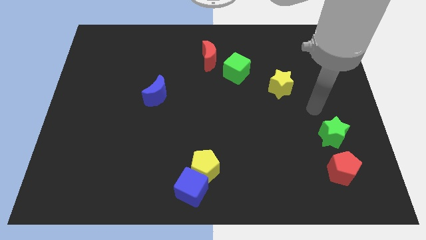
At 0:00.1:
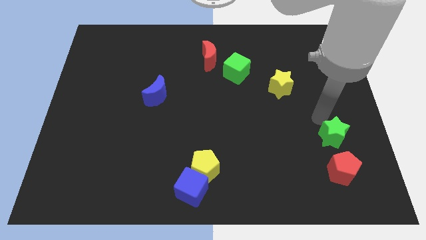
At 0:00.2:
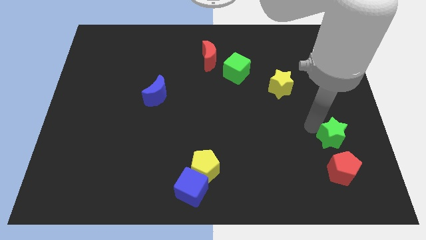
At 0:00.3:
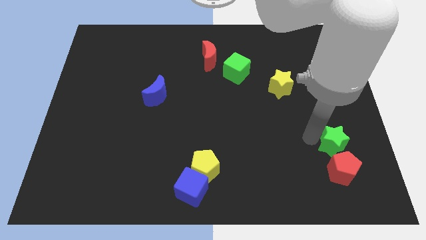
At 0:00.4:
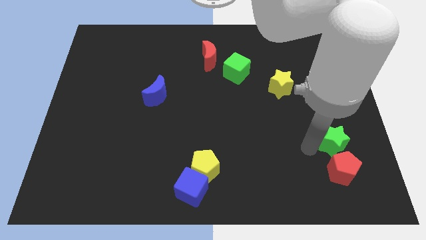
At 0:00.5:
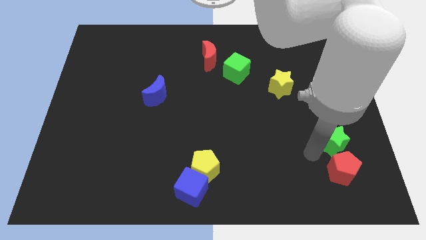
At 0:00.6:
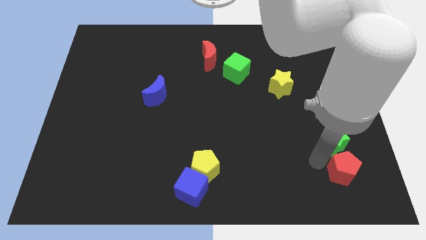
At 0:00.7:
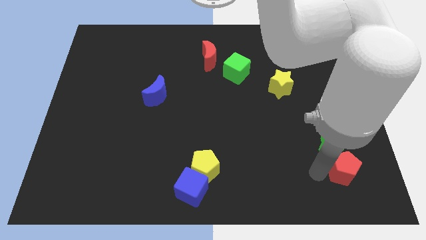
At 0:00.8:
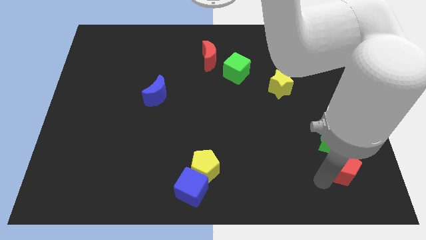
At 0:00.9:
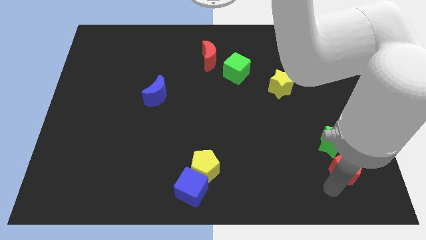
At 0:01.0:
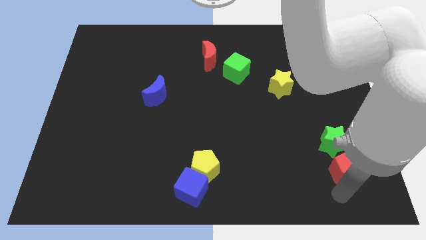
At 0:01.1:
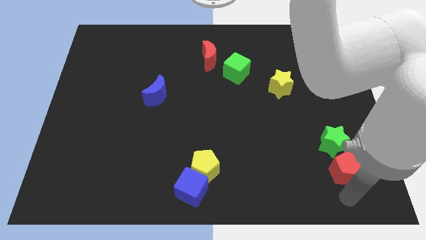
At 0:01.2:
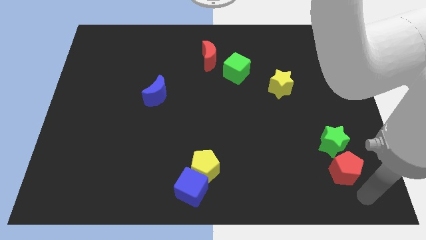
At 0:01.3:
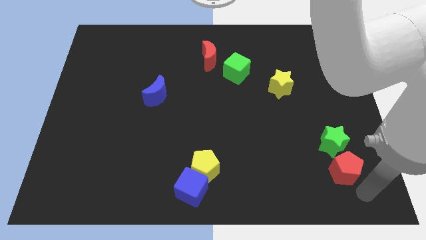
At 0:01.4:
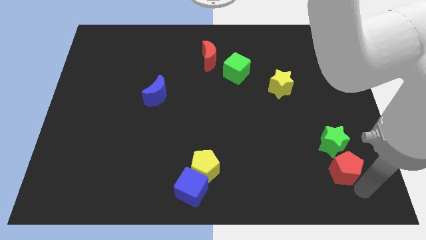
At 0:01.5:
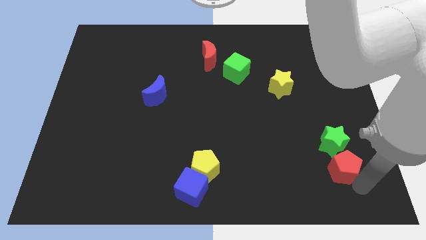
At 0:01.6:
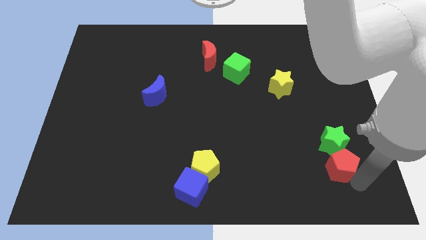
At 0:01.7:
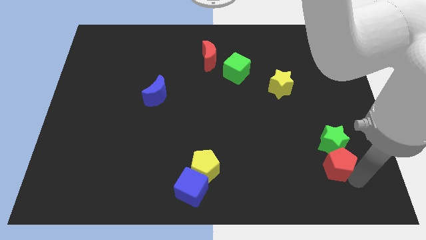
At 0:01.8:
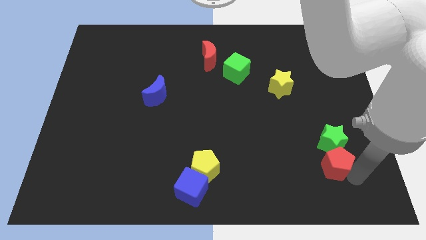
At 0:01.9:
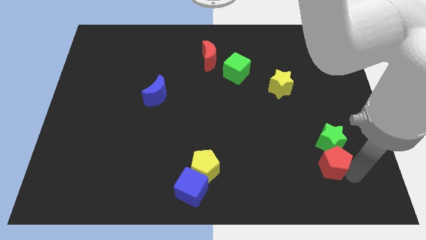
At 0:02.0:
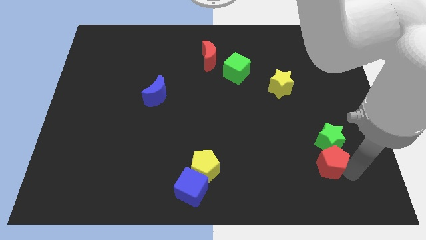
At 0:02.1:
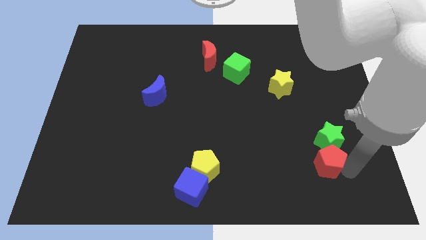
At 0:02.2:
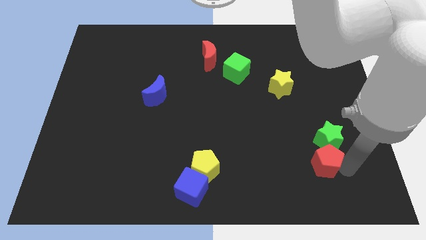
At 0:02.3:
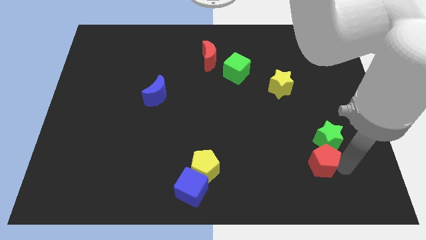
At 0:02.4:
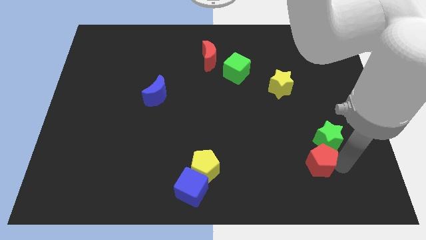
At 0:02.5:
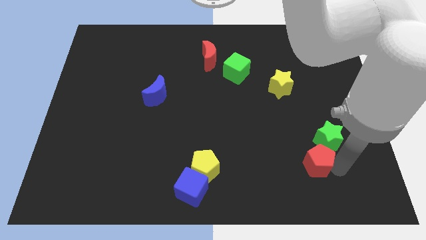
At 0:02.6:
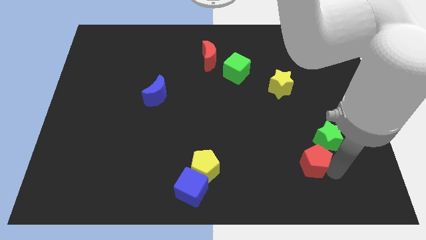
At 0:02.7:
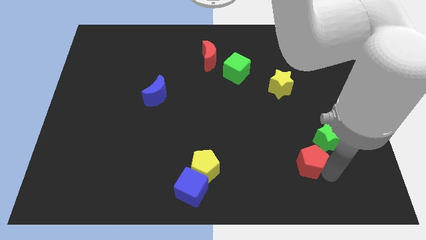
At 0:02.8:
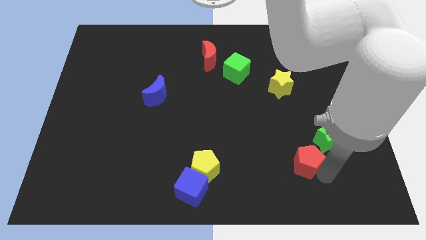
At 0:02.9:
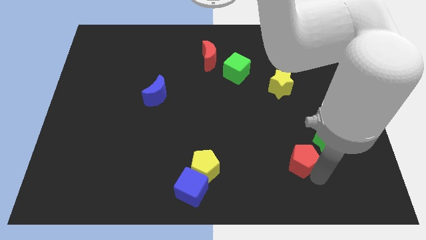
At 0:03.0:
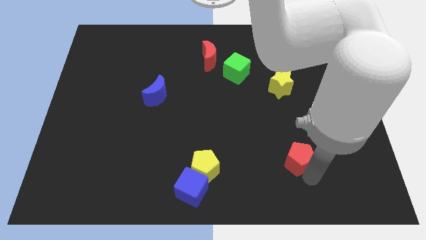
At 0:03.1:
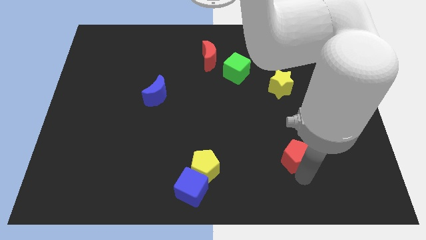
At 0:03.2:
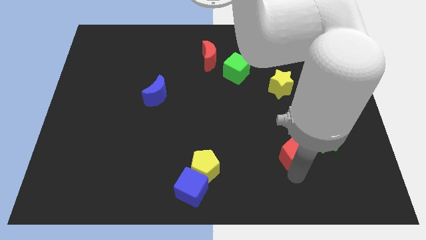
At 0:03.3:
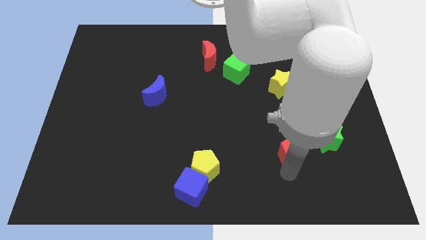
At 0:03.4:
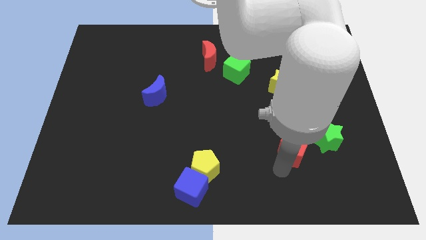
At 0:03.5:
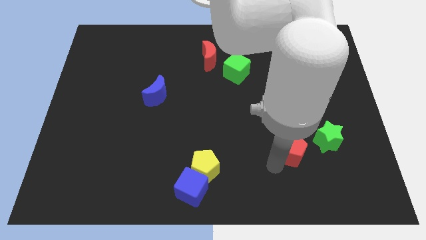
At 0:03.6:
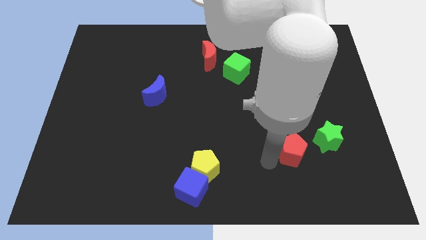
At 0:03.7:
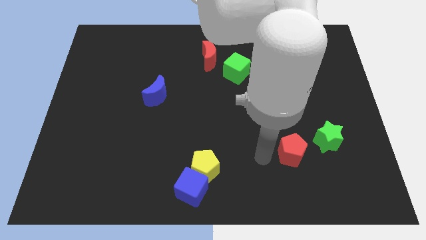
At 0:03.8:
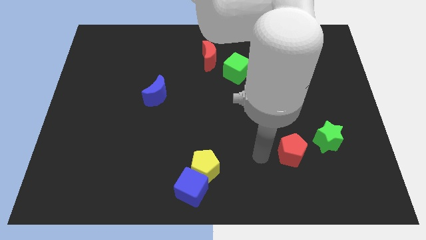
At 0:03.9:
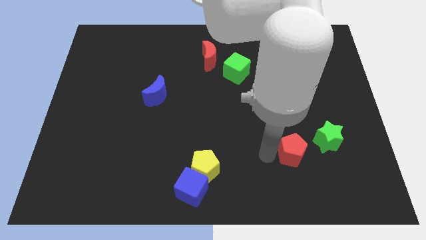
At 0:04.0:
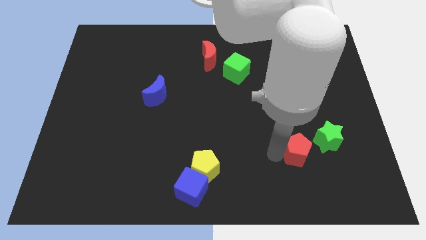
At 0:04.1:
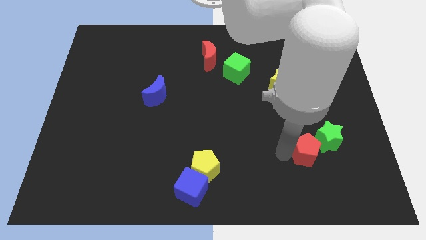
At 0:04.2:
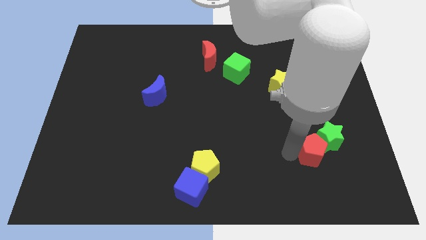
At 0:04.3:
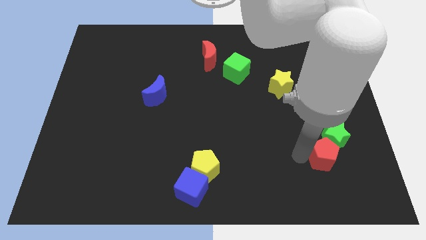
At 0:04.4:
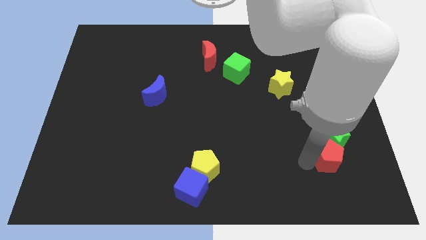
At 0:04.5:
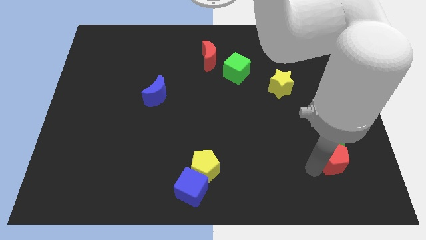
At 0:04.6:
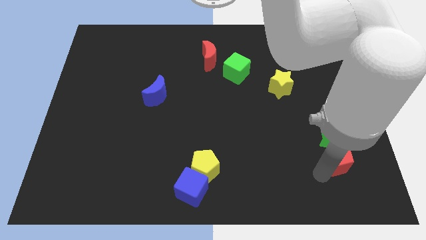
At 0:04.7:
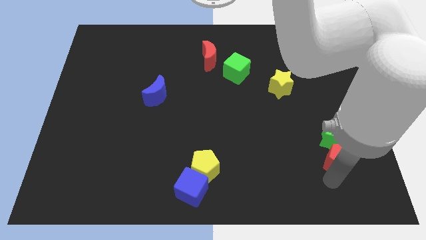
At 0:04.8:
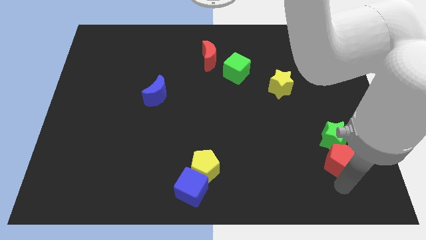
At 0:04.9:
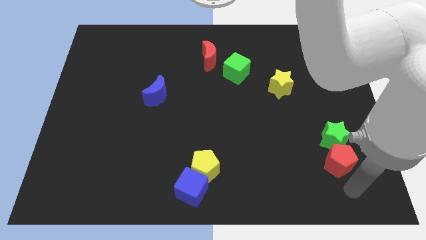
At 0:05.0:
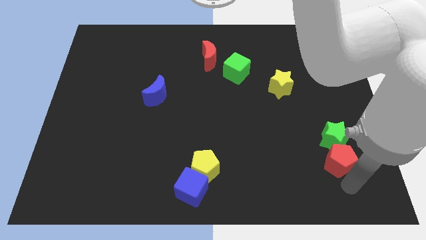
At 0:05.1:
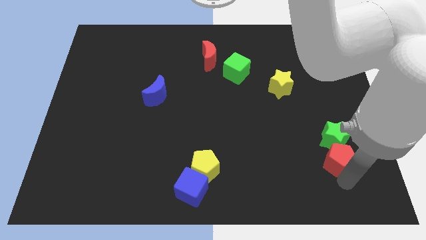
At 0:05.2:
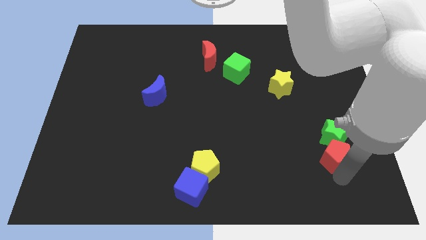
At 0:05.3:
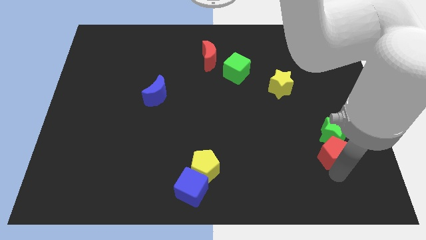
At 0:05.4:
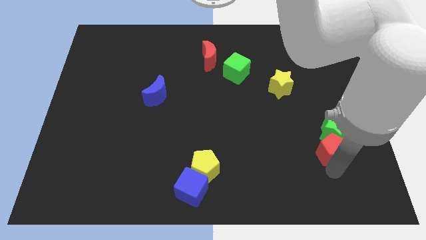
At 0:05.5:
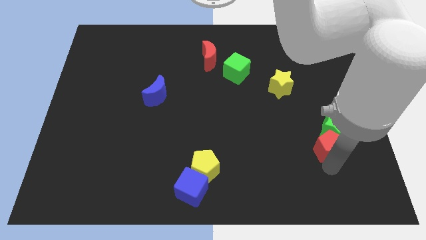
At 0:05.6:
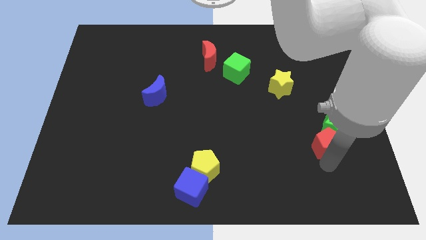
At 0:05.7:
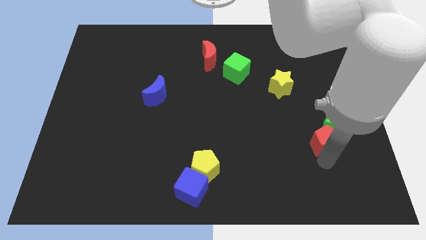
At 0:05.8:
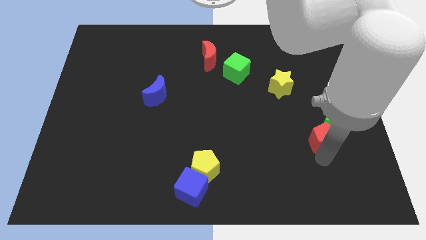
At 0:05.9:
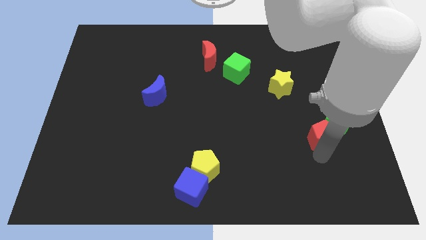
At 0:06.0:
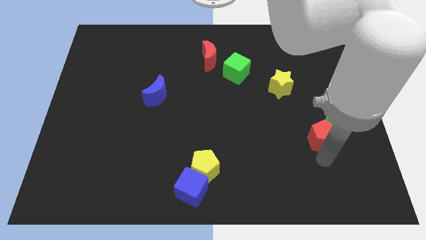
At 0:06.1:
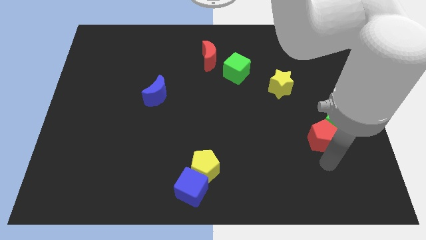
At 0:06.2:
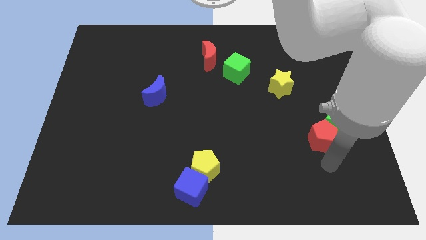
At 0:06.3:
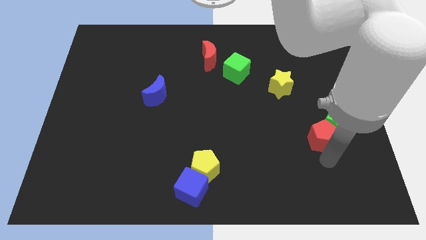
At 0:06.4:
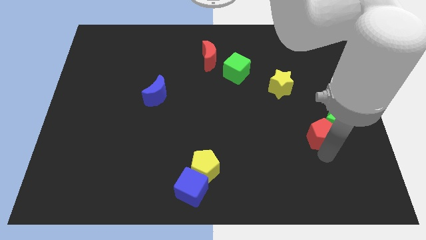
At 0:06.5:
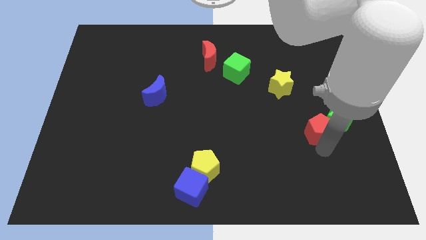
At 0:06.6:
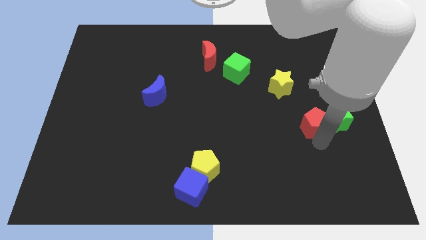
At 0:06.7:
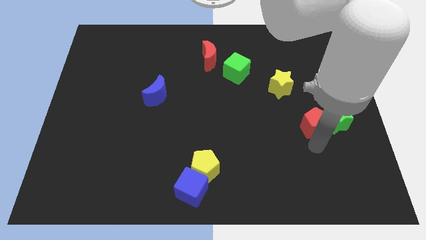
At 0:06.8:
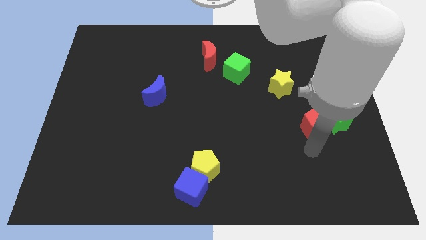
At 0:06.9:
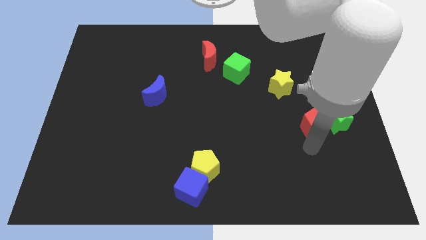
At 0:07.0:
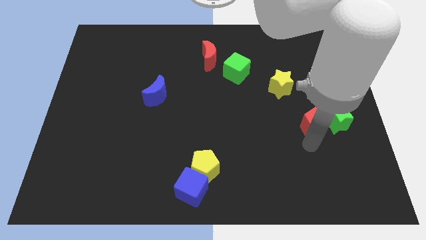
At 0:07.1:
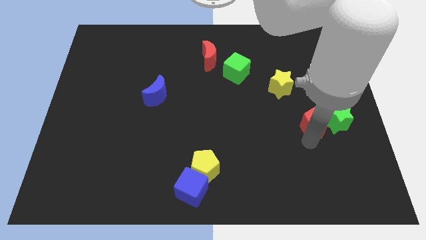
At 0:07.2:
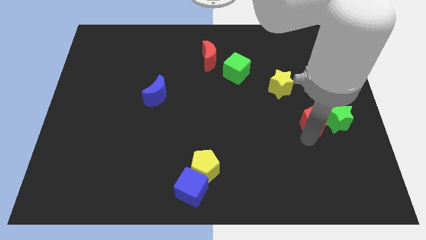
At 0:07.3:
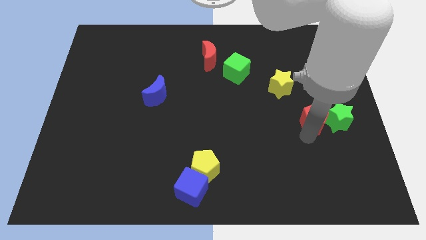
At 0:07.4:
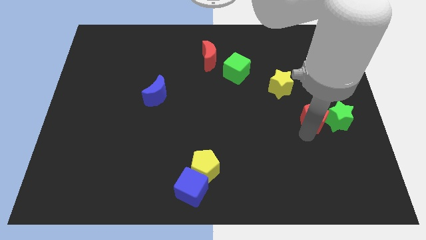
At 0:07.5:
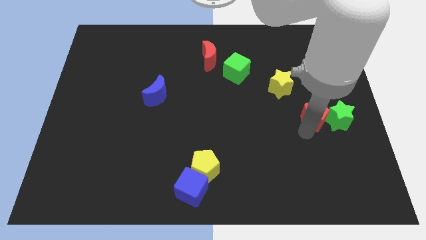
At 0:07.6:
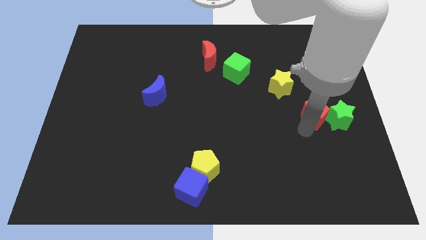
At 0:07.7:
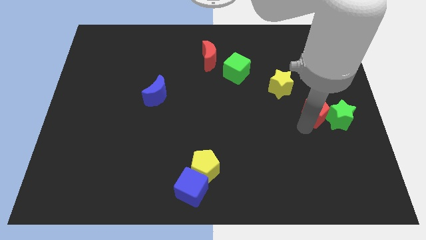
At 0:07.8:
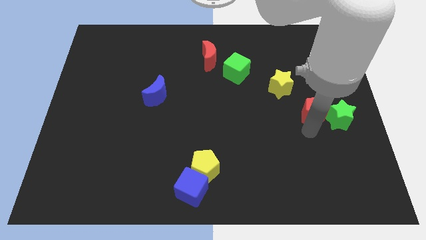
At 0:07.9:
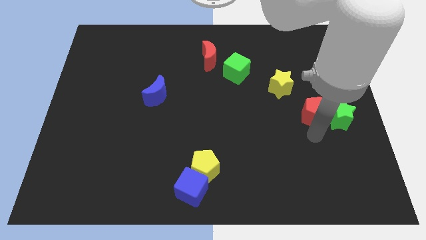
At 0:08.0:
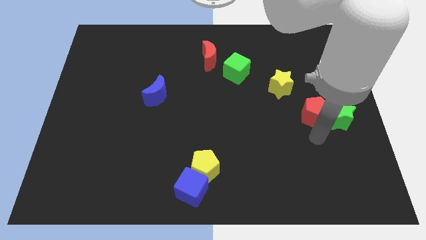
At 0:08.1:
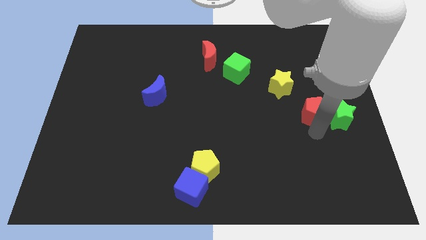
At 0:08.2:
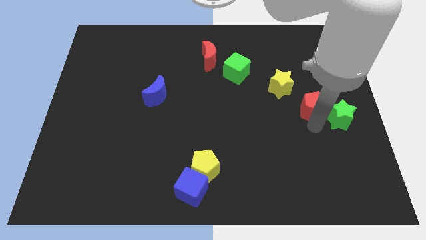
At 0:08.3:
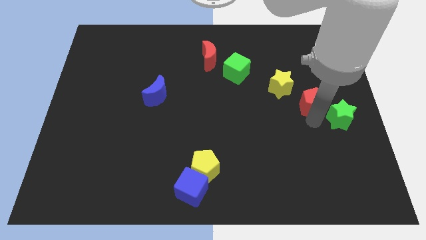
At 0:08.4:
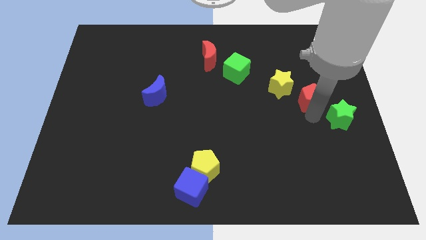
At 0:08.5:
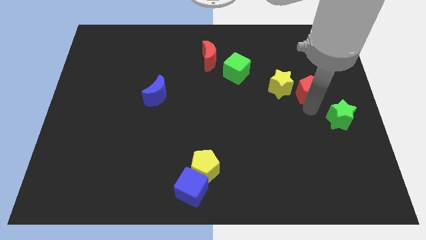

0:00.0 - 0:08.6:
move the red pentagon upwards
